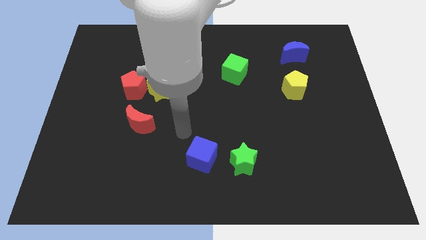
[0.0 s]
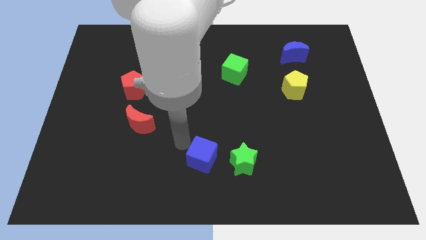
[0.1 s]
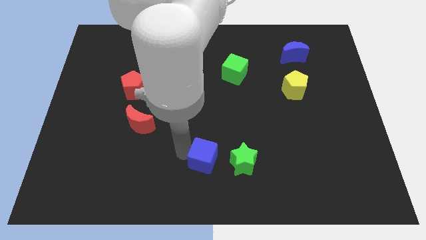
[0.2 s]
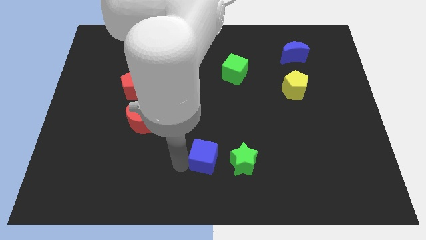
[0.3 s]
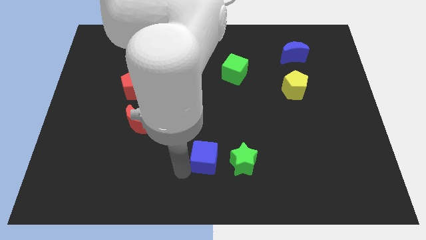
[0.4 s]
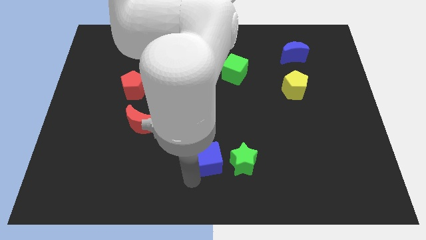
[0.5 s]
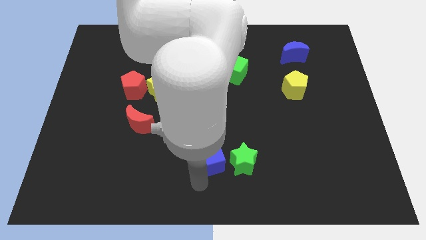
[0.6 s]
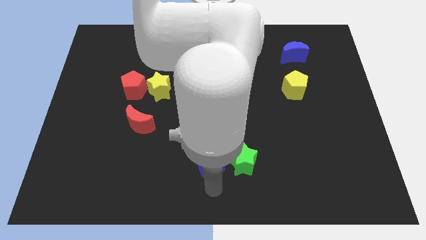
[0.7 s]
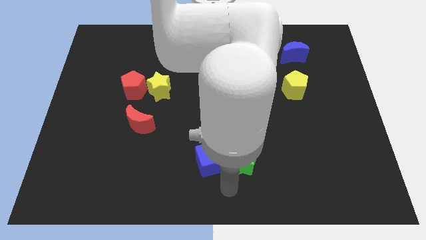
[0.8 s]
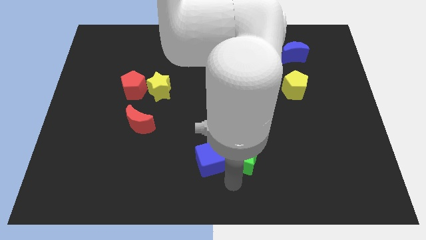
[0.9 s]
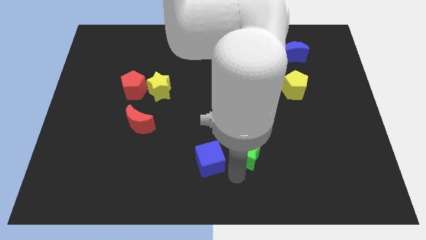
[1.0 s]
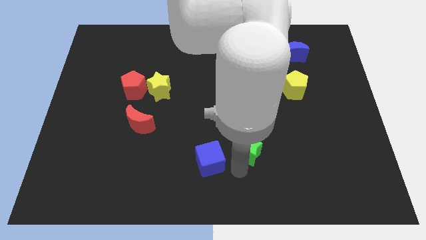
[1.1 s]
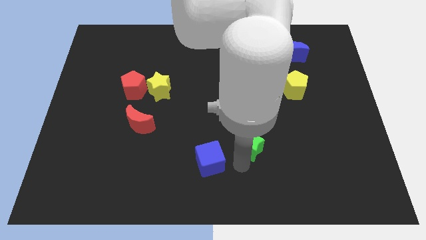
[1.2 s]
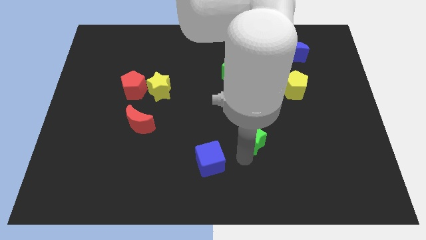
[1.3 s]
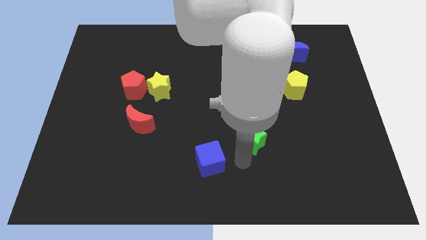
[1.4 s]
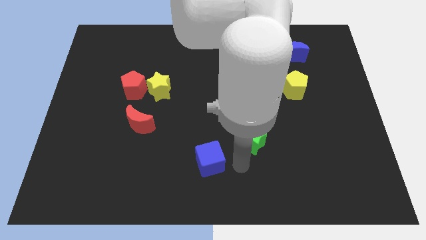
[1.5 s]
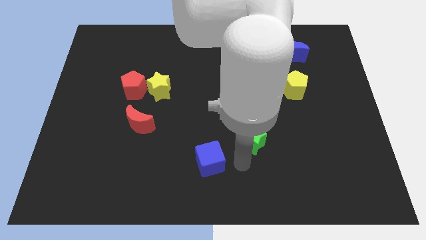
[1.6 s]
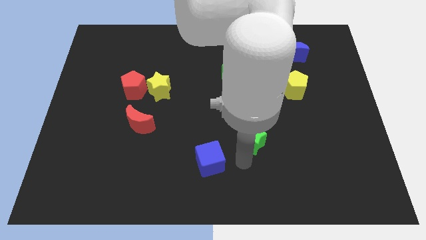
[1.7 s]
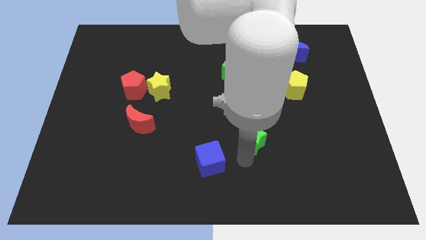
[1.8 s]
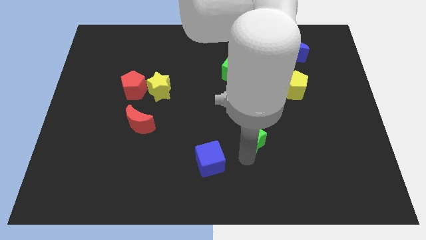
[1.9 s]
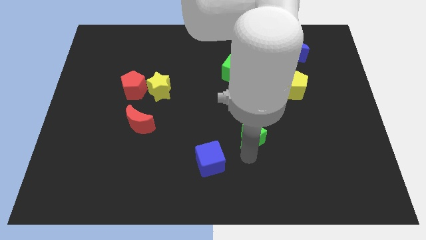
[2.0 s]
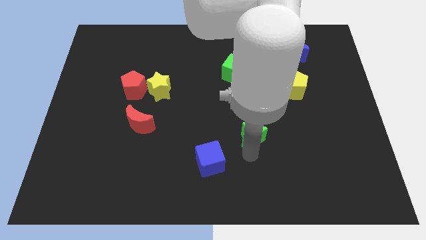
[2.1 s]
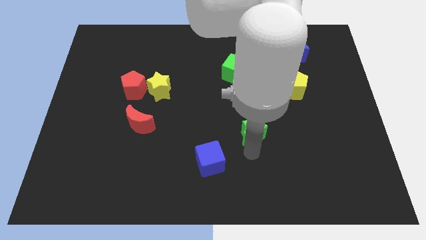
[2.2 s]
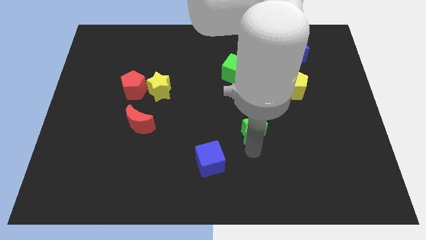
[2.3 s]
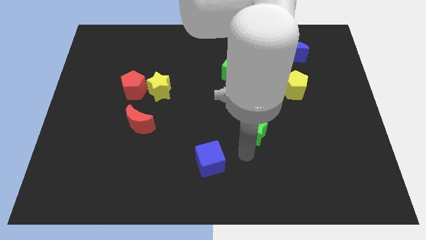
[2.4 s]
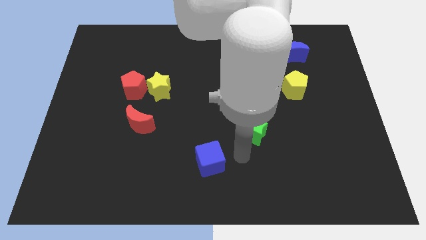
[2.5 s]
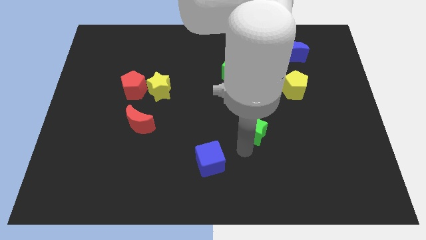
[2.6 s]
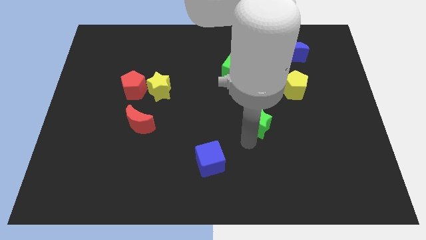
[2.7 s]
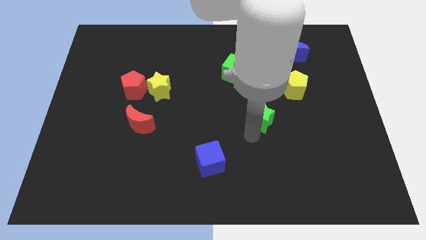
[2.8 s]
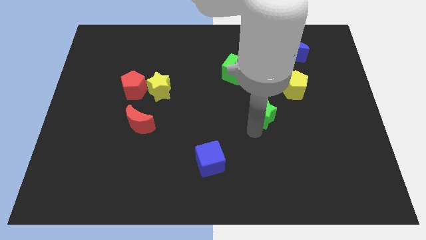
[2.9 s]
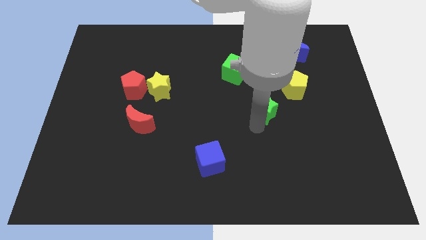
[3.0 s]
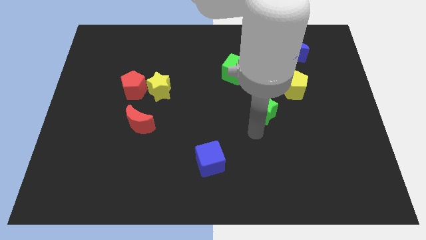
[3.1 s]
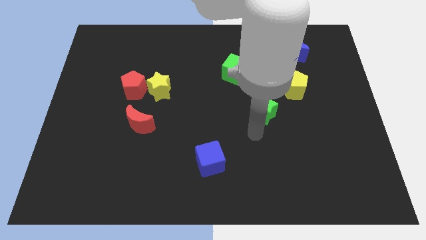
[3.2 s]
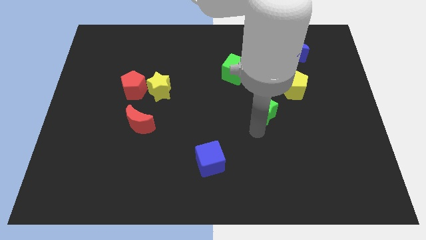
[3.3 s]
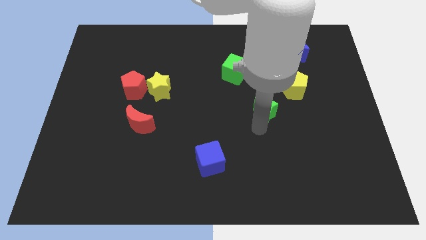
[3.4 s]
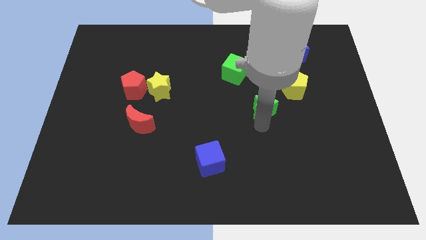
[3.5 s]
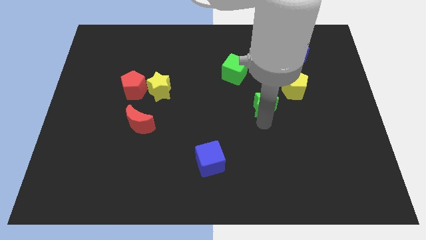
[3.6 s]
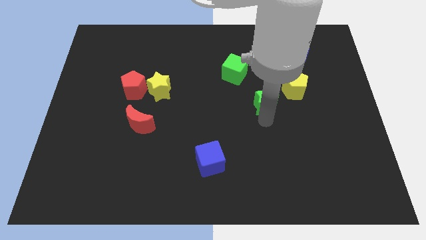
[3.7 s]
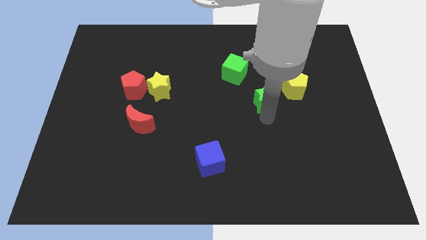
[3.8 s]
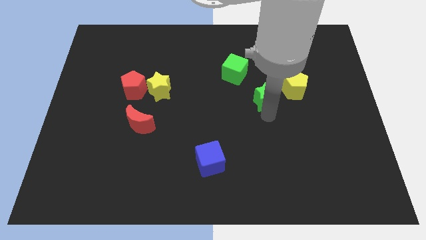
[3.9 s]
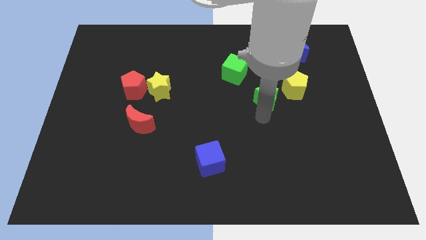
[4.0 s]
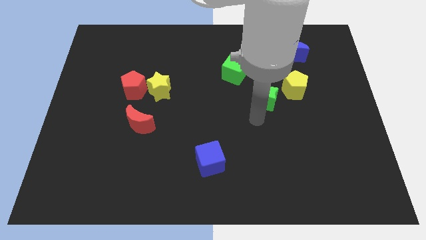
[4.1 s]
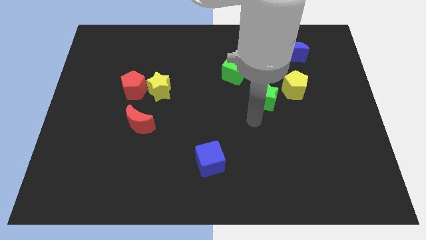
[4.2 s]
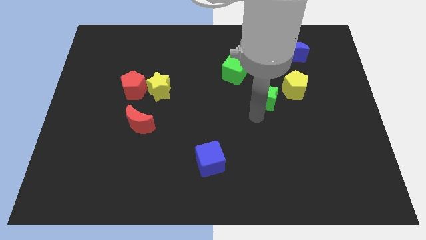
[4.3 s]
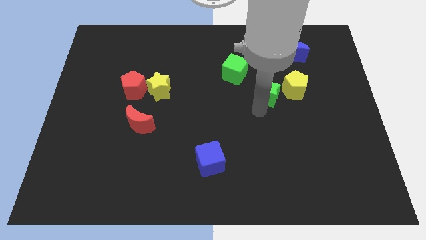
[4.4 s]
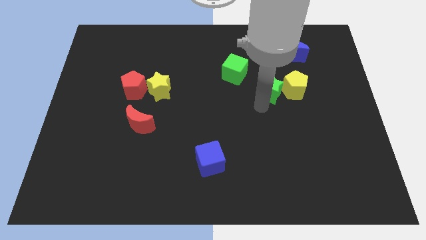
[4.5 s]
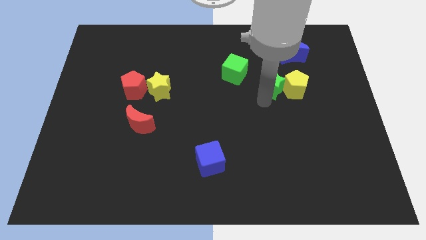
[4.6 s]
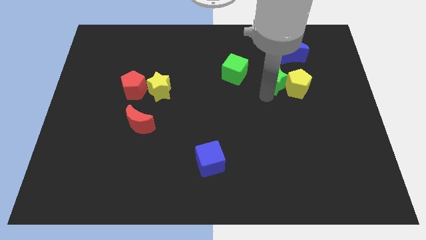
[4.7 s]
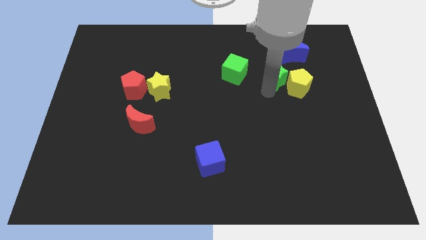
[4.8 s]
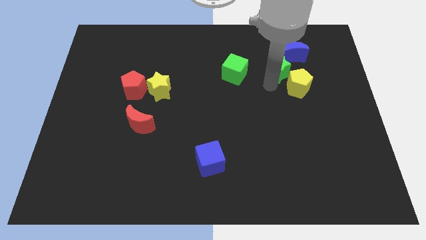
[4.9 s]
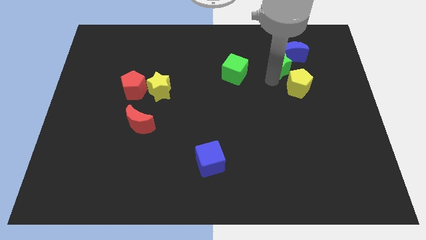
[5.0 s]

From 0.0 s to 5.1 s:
put the green star next to the blue moon
